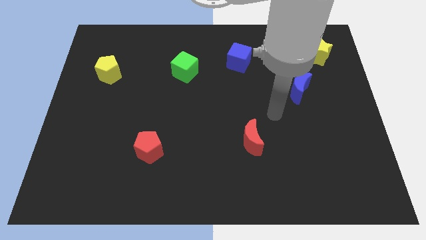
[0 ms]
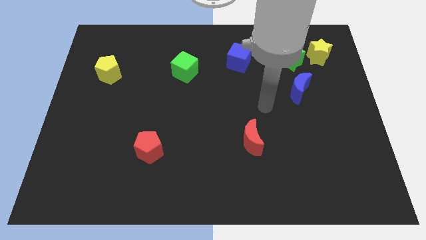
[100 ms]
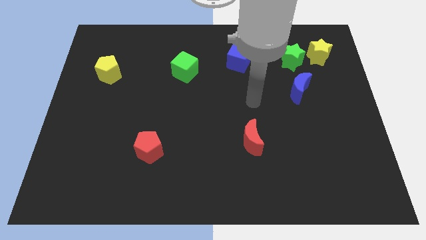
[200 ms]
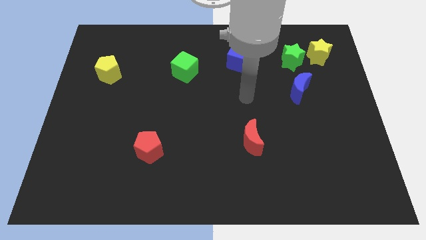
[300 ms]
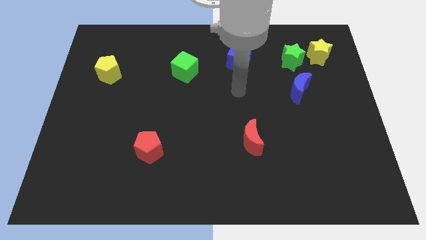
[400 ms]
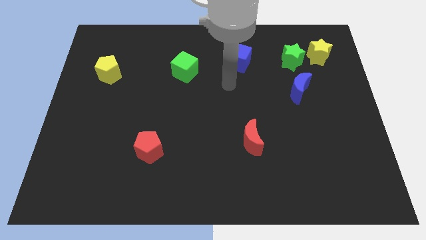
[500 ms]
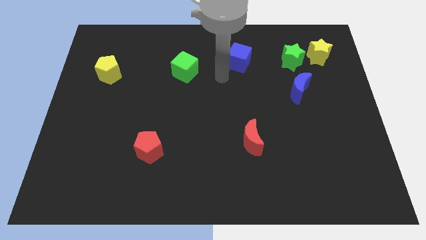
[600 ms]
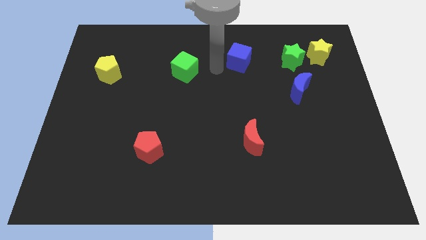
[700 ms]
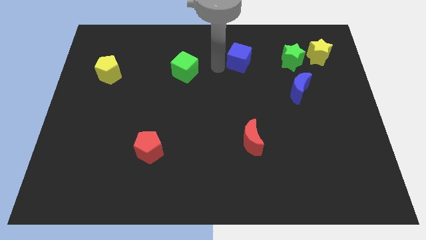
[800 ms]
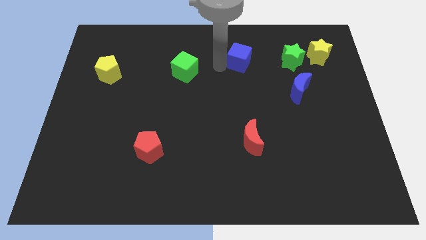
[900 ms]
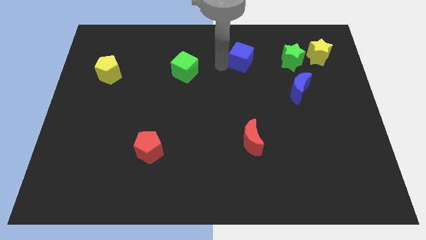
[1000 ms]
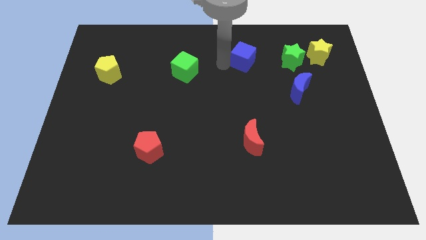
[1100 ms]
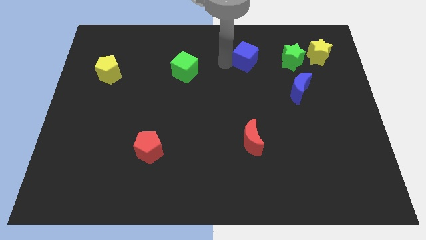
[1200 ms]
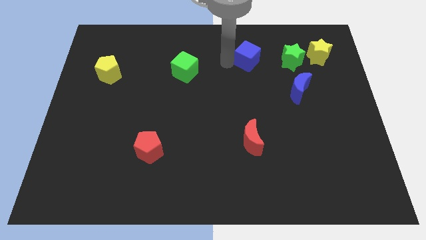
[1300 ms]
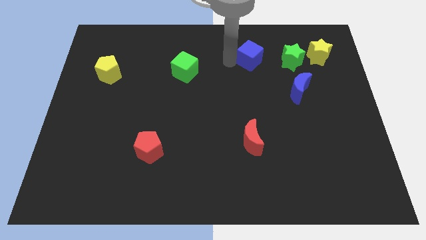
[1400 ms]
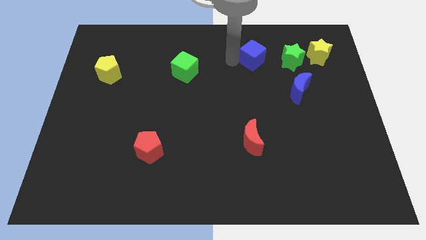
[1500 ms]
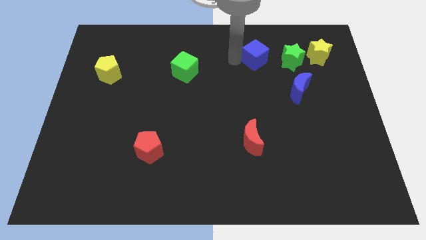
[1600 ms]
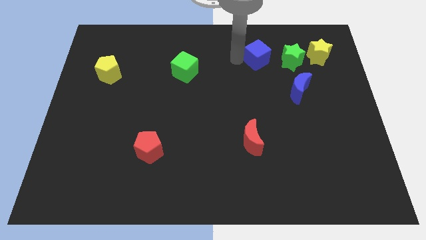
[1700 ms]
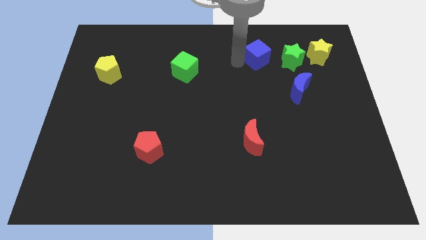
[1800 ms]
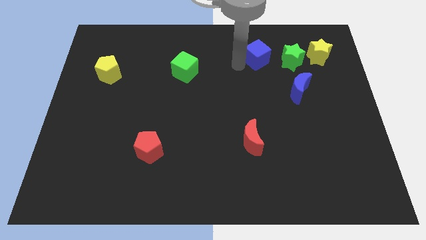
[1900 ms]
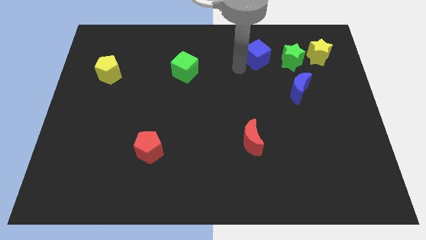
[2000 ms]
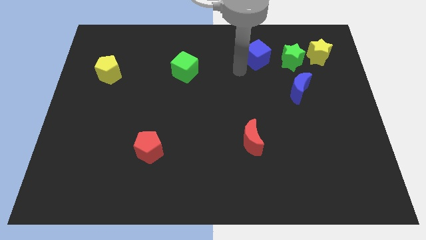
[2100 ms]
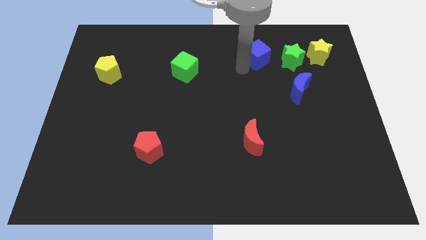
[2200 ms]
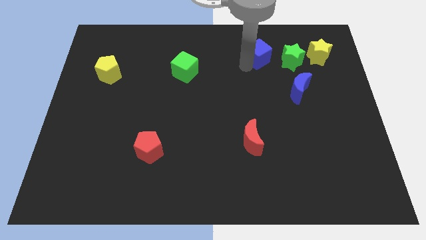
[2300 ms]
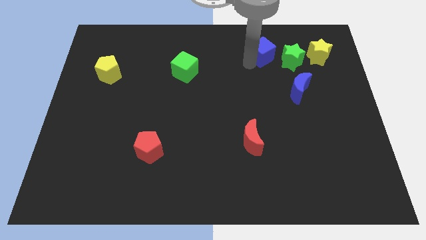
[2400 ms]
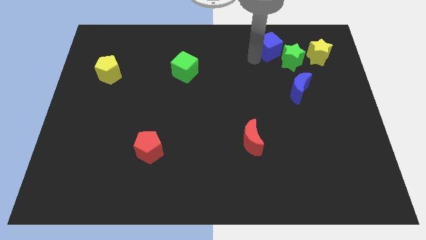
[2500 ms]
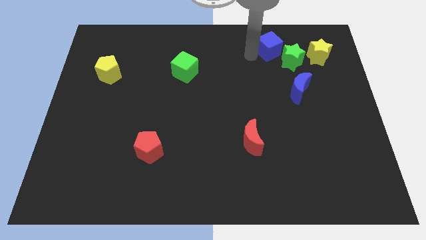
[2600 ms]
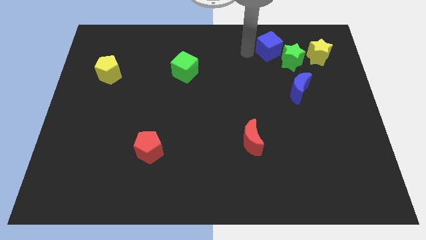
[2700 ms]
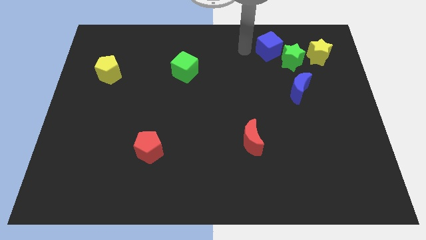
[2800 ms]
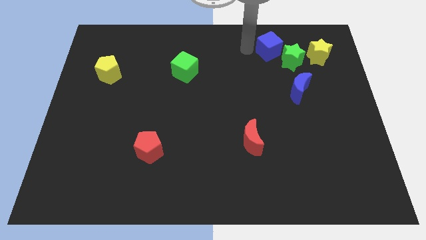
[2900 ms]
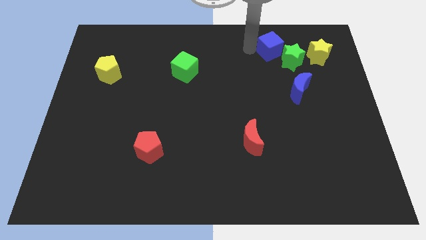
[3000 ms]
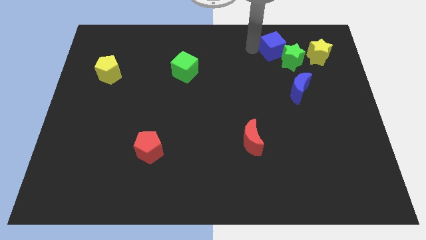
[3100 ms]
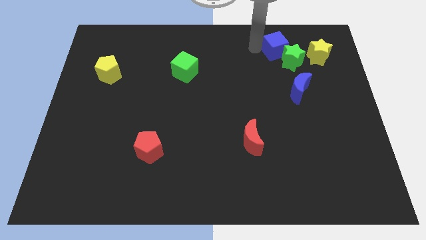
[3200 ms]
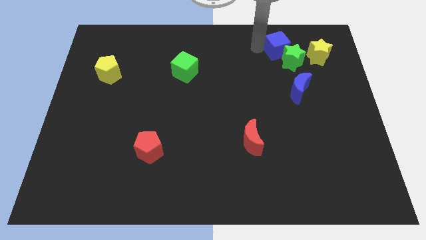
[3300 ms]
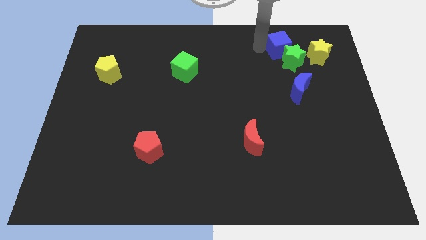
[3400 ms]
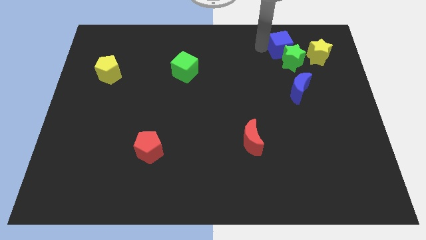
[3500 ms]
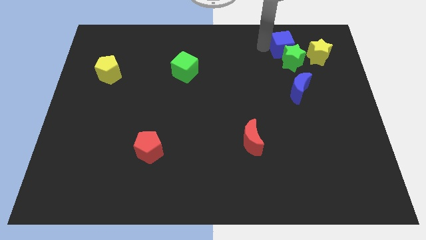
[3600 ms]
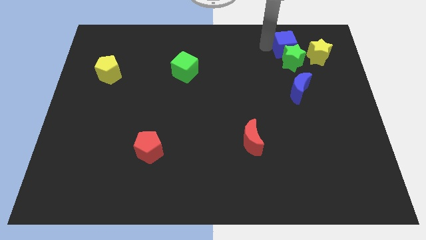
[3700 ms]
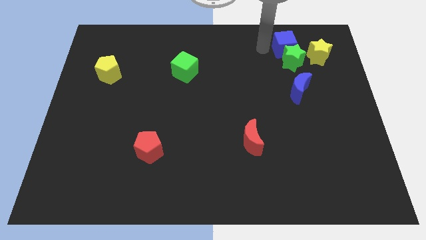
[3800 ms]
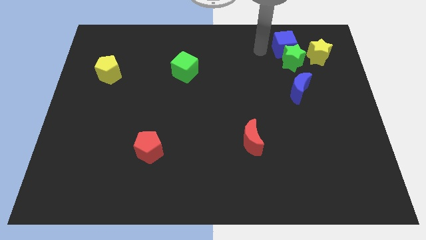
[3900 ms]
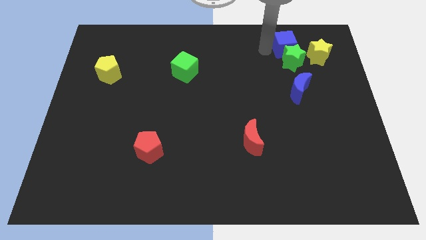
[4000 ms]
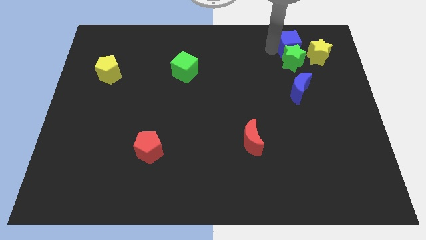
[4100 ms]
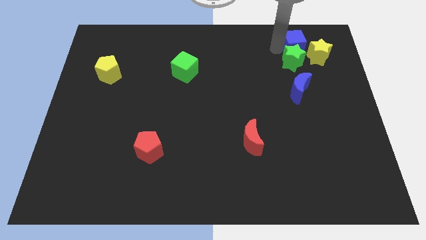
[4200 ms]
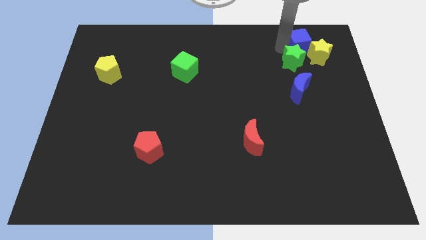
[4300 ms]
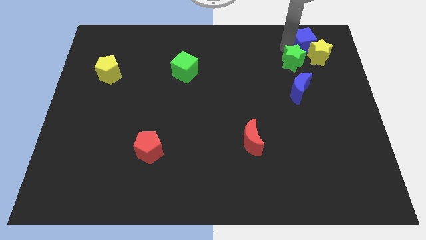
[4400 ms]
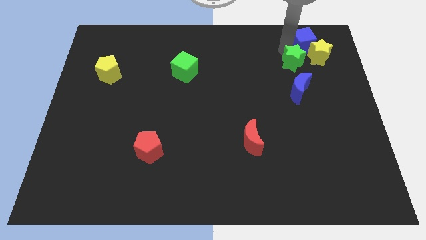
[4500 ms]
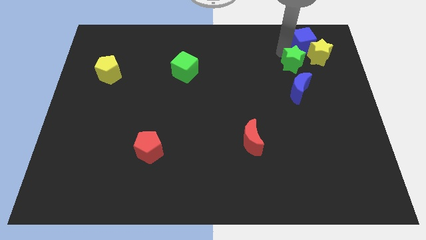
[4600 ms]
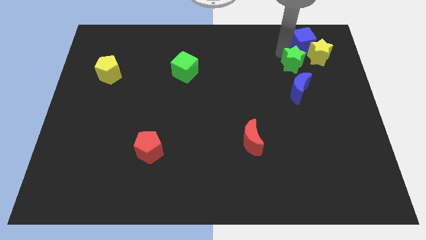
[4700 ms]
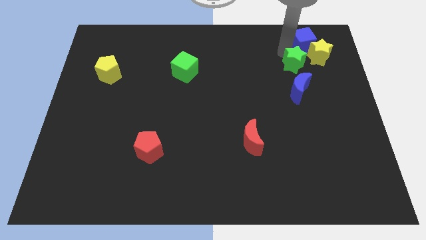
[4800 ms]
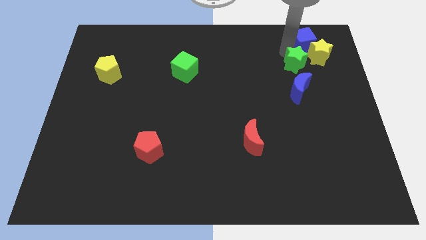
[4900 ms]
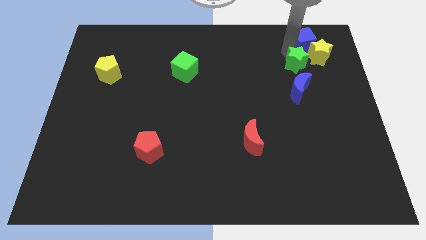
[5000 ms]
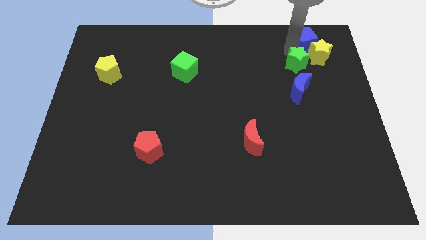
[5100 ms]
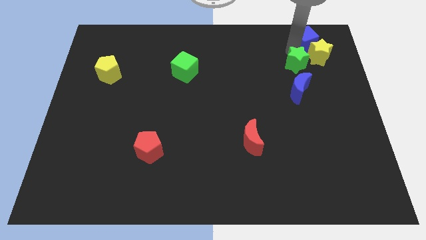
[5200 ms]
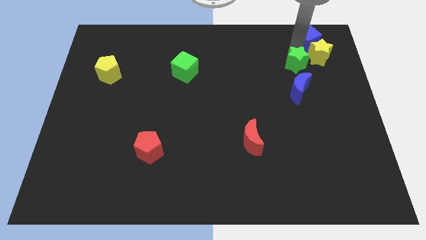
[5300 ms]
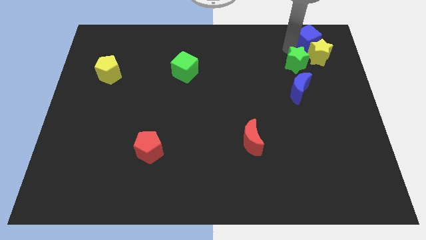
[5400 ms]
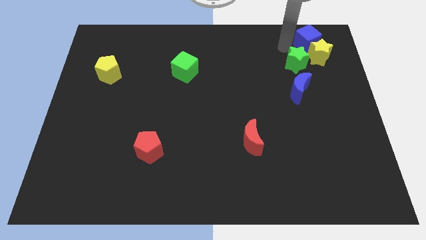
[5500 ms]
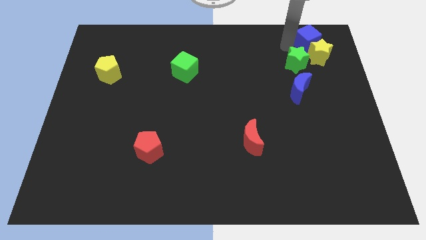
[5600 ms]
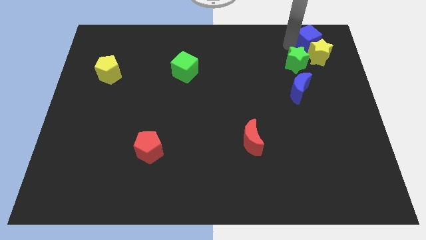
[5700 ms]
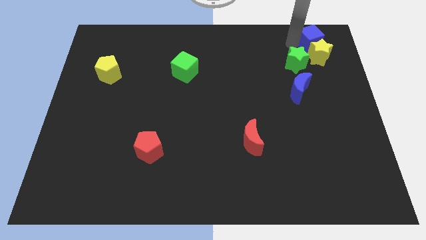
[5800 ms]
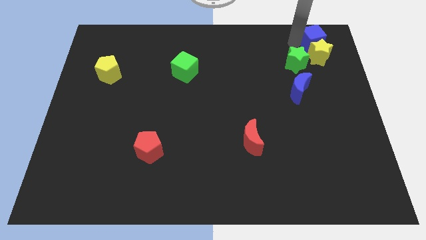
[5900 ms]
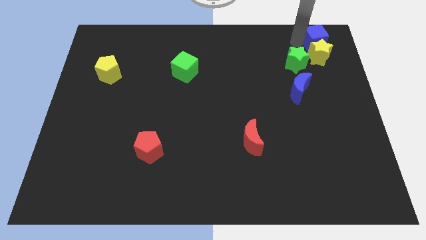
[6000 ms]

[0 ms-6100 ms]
push the blue cube to the top right corner
